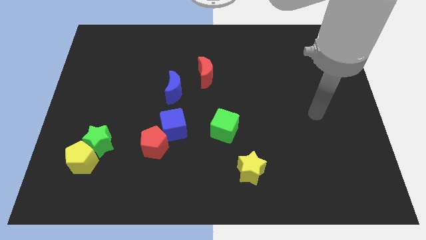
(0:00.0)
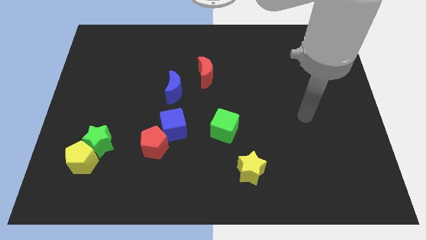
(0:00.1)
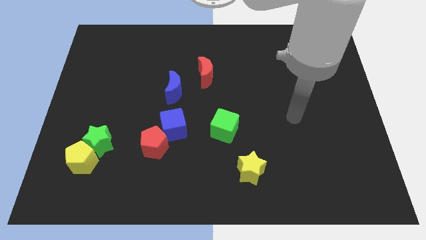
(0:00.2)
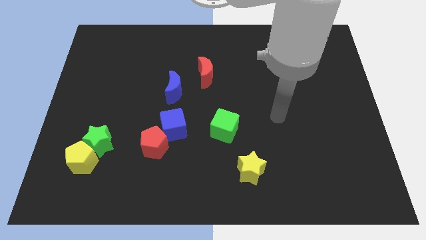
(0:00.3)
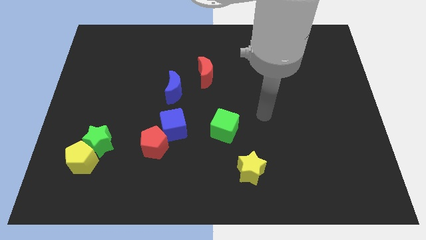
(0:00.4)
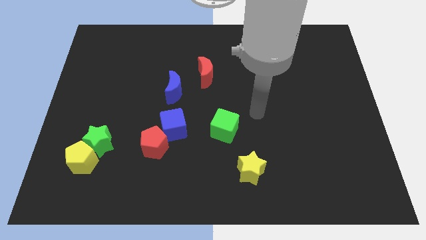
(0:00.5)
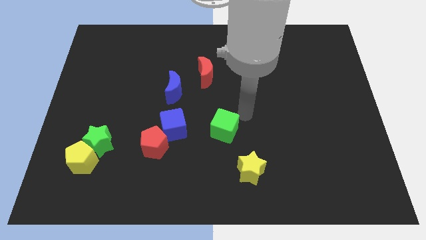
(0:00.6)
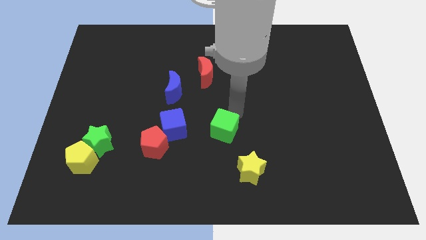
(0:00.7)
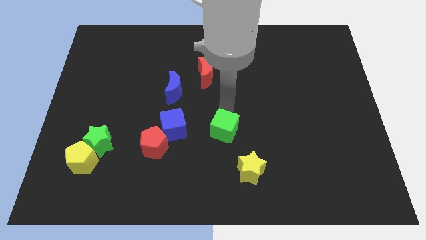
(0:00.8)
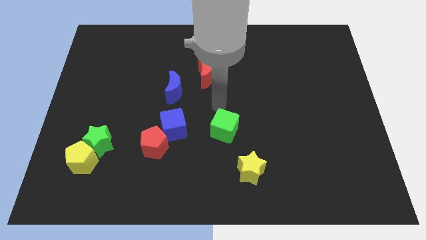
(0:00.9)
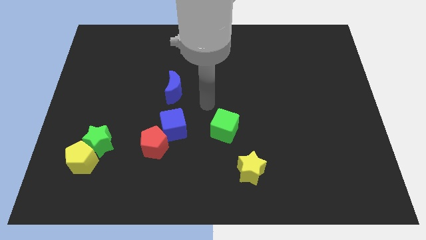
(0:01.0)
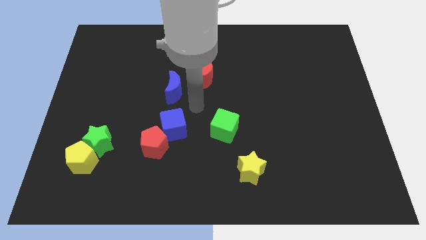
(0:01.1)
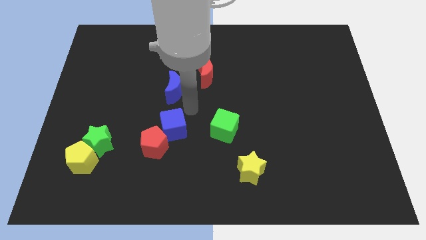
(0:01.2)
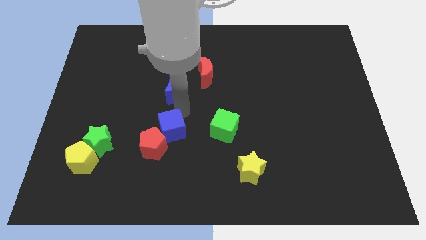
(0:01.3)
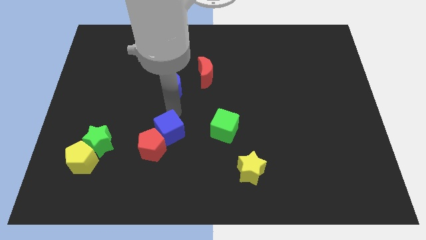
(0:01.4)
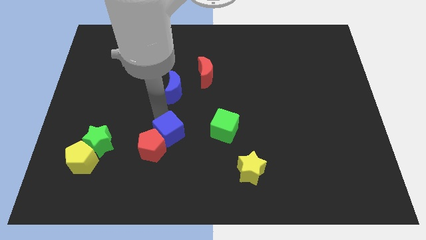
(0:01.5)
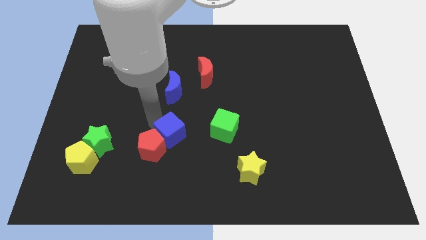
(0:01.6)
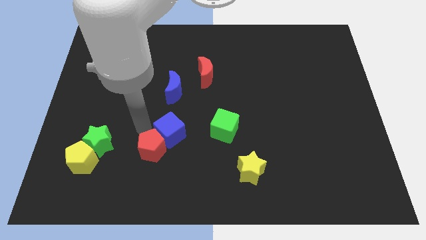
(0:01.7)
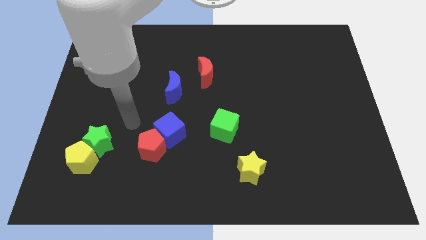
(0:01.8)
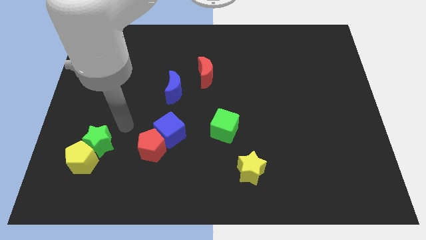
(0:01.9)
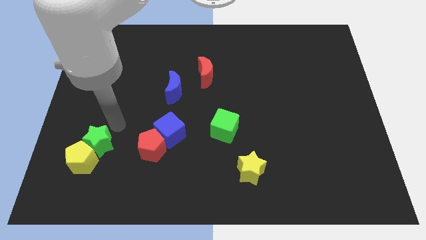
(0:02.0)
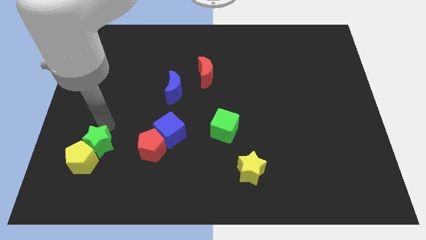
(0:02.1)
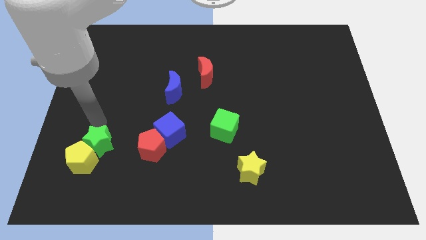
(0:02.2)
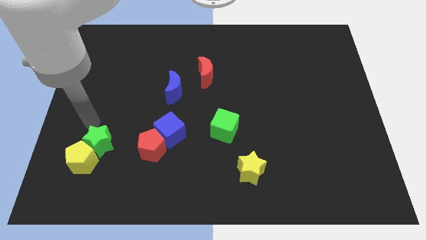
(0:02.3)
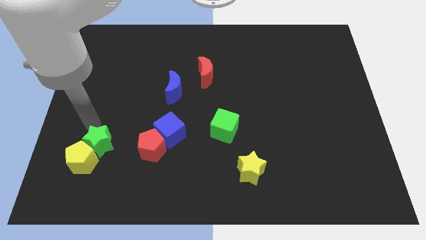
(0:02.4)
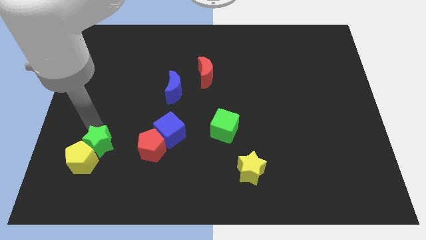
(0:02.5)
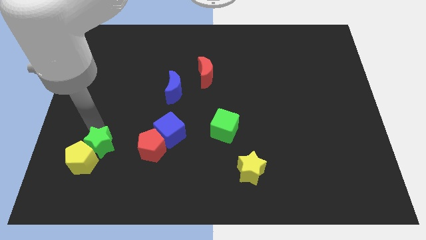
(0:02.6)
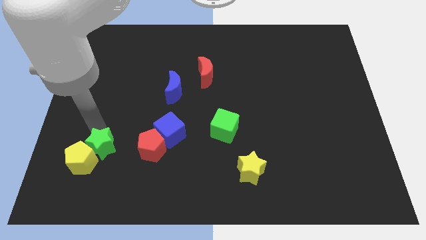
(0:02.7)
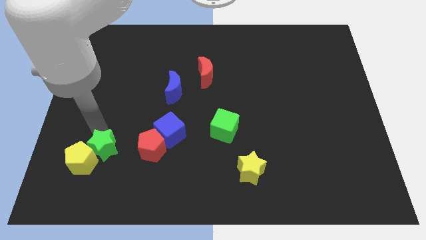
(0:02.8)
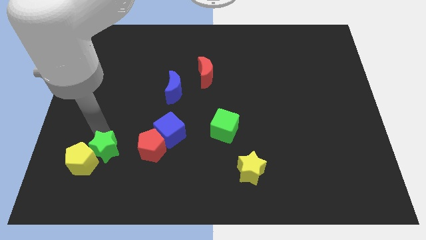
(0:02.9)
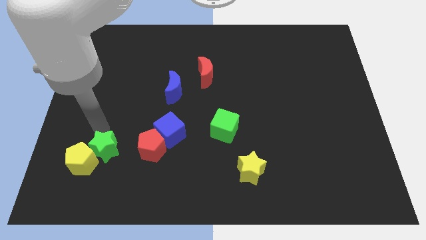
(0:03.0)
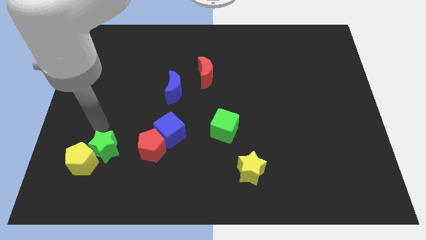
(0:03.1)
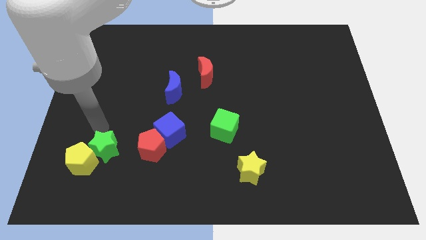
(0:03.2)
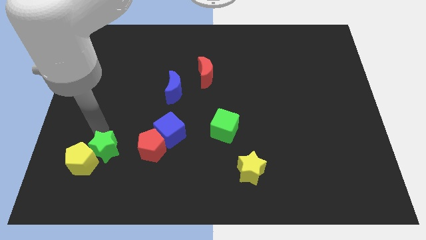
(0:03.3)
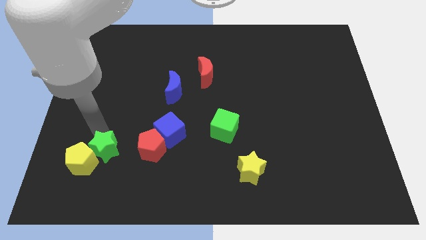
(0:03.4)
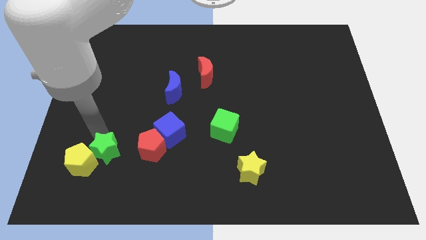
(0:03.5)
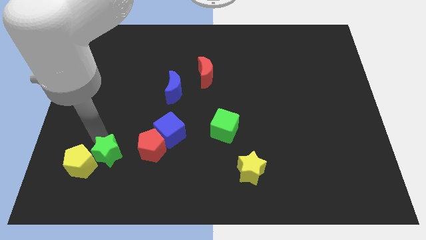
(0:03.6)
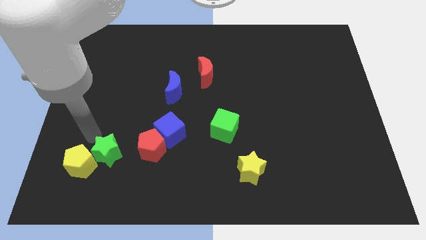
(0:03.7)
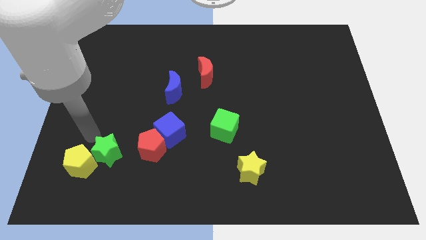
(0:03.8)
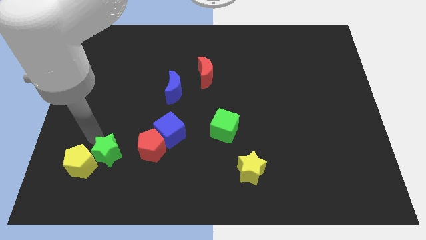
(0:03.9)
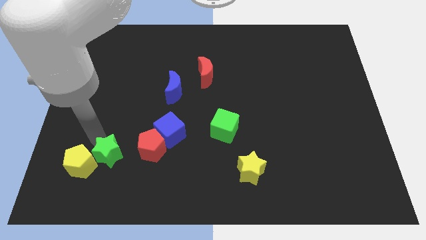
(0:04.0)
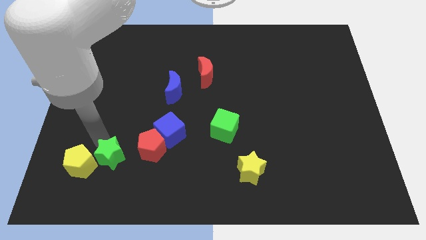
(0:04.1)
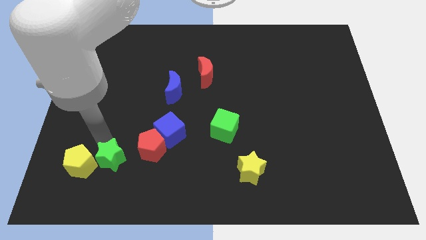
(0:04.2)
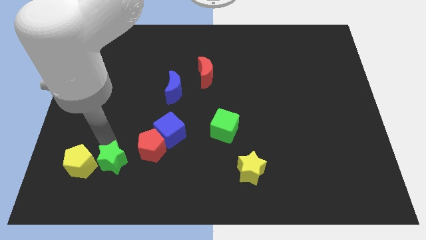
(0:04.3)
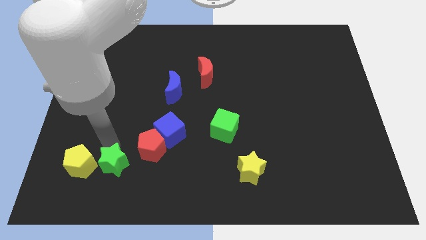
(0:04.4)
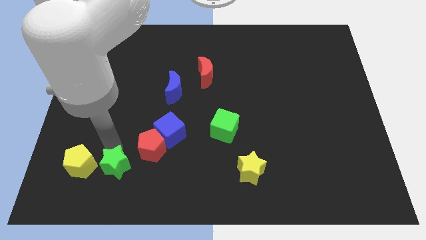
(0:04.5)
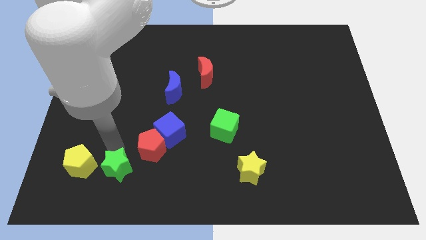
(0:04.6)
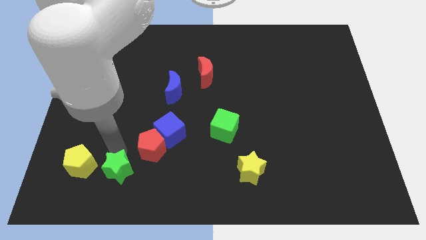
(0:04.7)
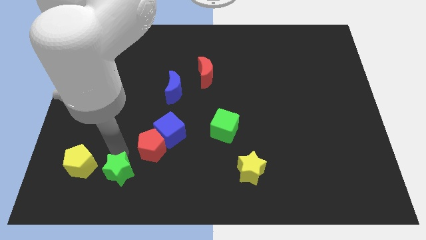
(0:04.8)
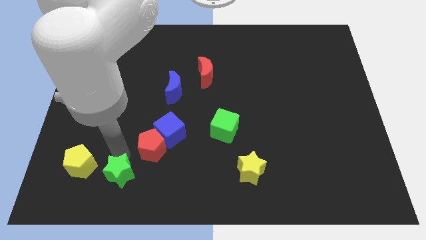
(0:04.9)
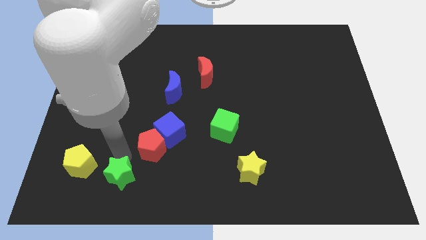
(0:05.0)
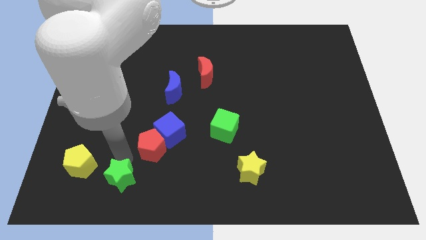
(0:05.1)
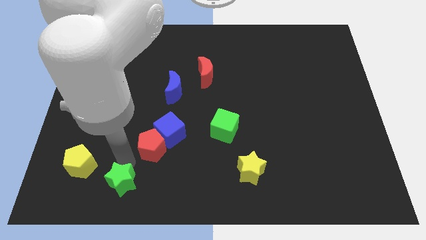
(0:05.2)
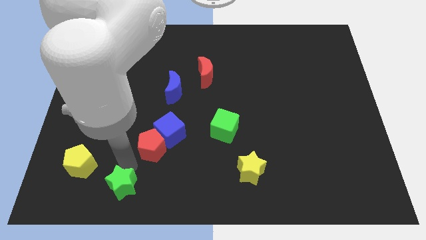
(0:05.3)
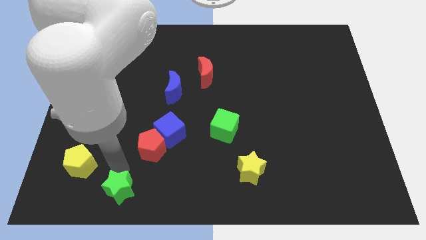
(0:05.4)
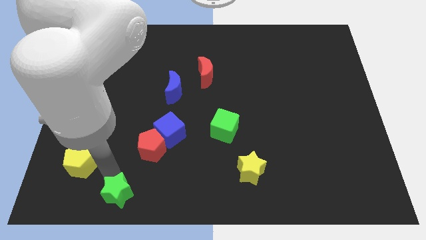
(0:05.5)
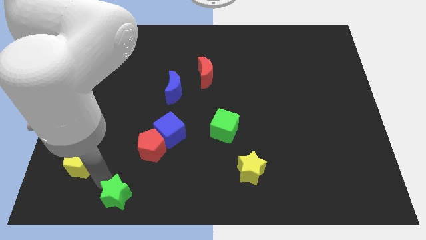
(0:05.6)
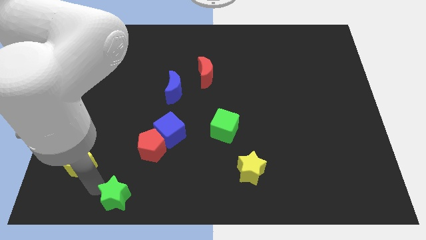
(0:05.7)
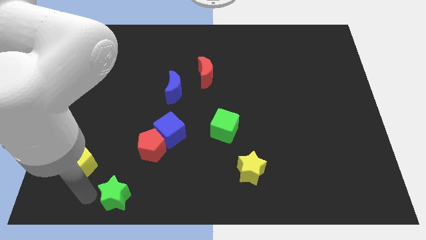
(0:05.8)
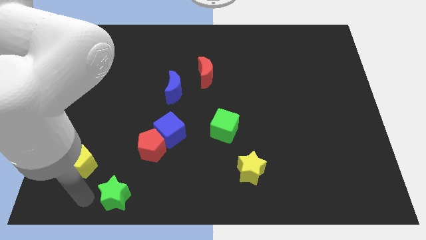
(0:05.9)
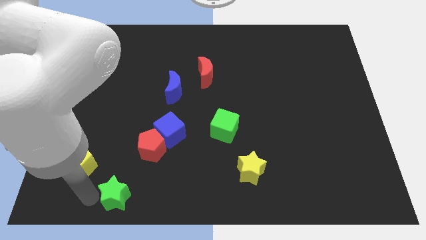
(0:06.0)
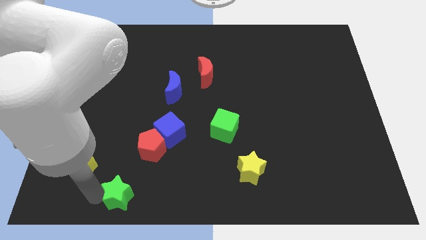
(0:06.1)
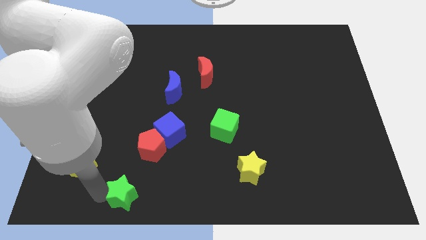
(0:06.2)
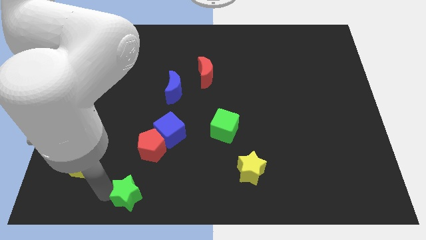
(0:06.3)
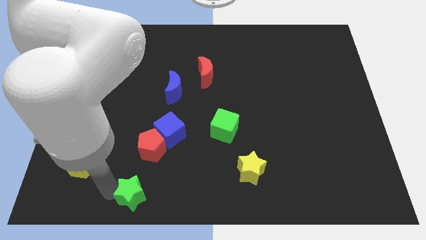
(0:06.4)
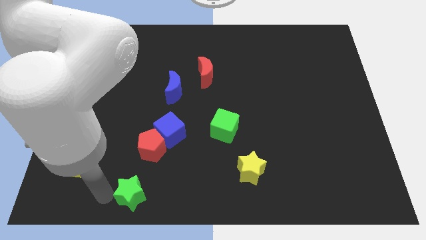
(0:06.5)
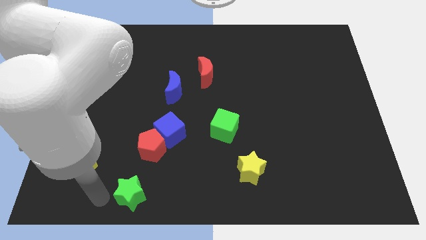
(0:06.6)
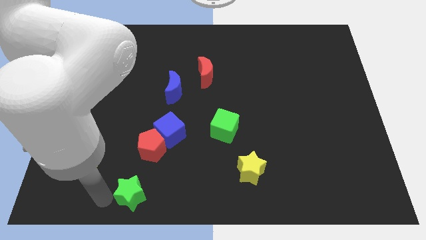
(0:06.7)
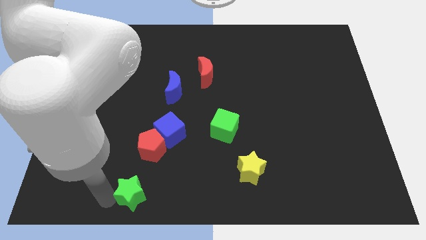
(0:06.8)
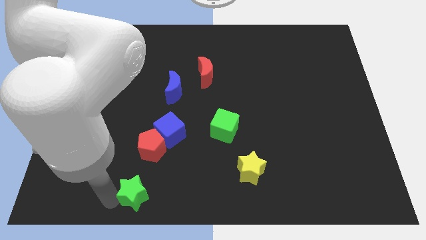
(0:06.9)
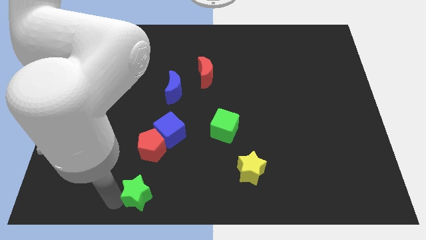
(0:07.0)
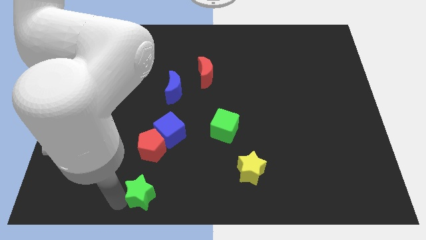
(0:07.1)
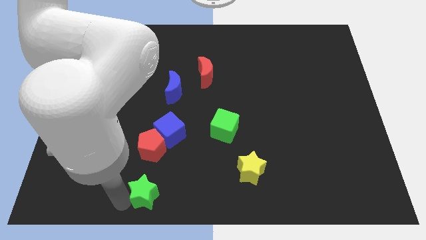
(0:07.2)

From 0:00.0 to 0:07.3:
put the green star to the bottom side
